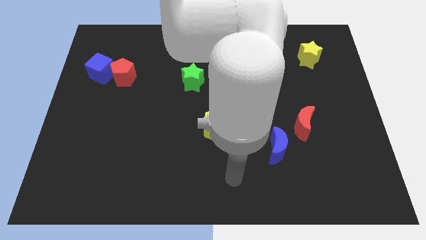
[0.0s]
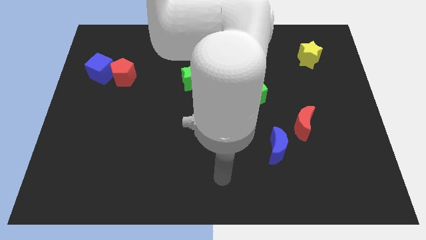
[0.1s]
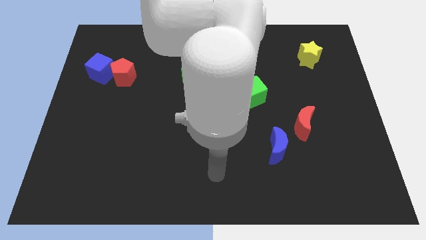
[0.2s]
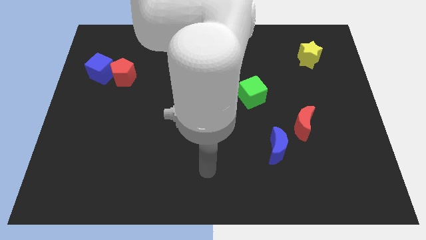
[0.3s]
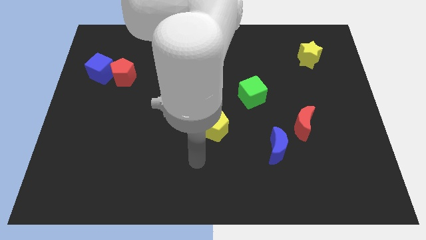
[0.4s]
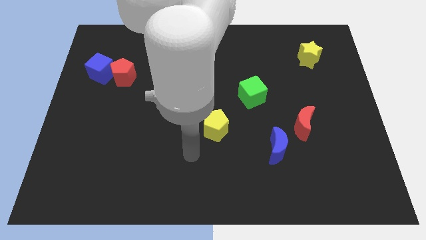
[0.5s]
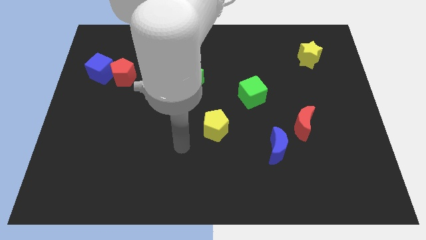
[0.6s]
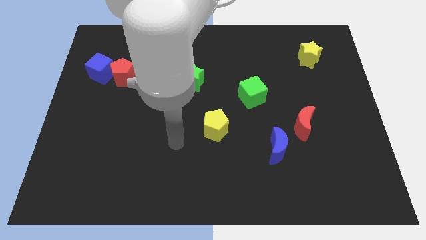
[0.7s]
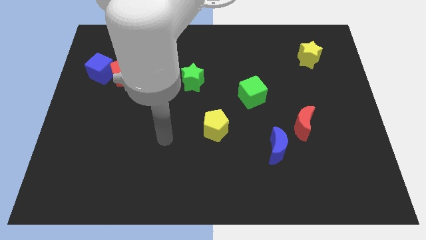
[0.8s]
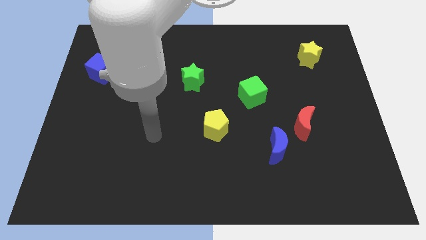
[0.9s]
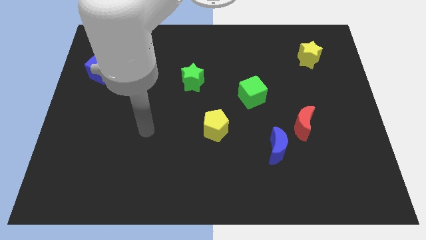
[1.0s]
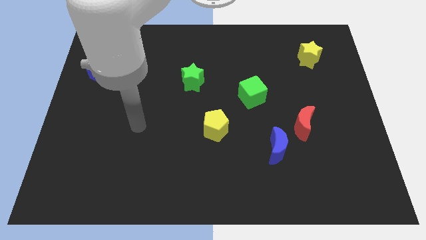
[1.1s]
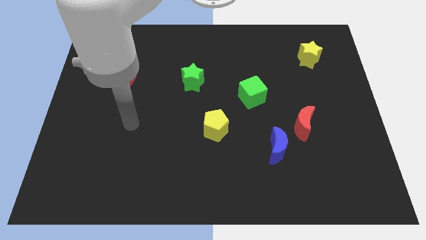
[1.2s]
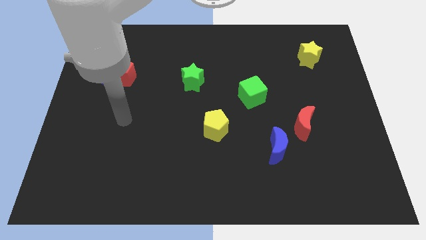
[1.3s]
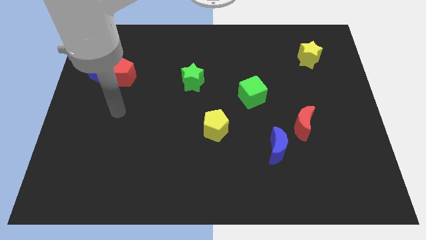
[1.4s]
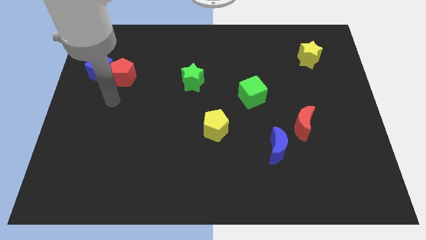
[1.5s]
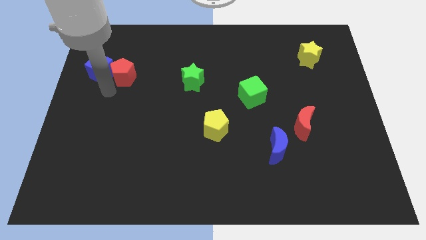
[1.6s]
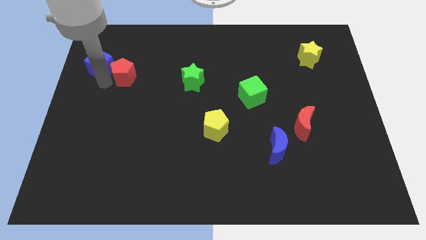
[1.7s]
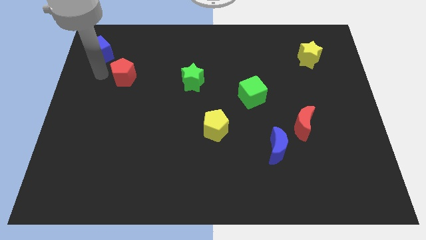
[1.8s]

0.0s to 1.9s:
move the red pentagon away from the blue cube

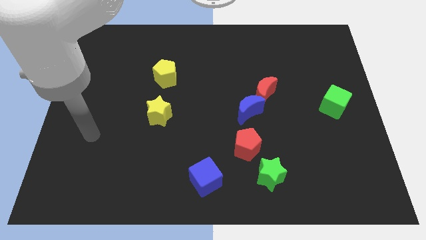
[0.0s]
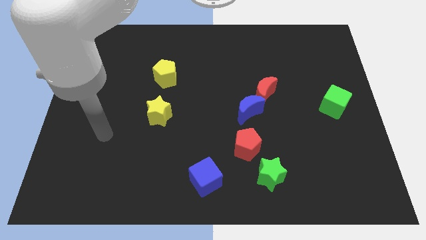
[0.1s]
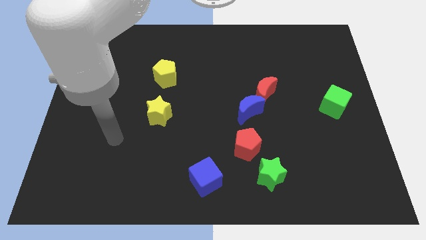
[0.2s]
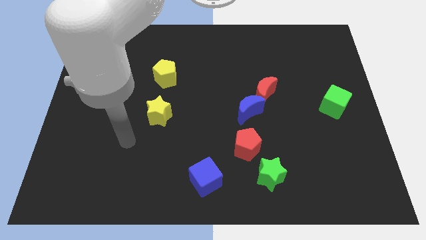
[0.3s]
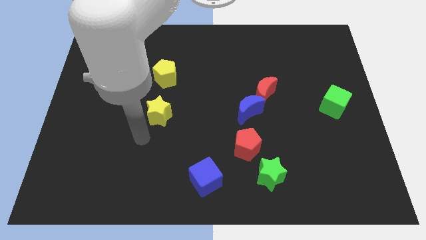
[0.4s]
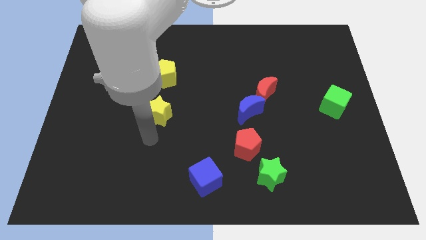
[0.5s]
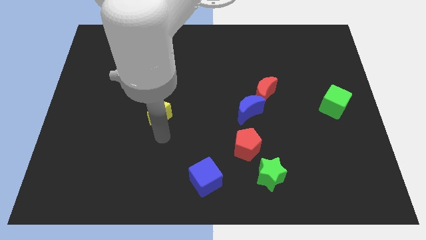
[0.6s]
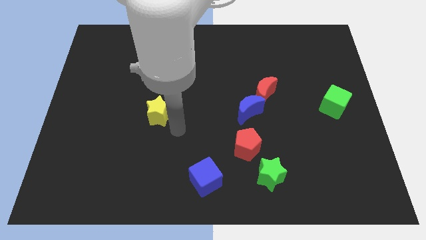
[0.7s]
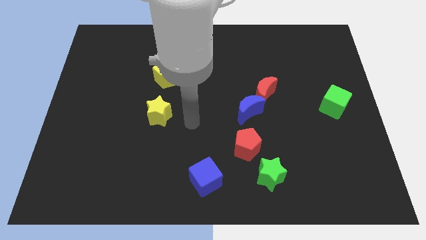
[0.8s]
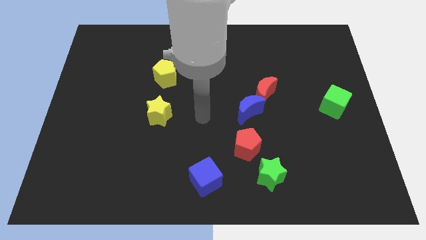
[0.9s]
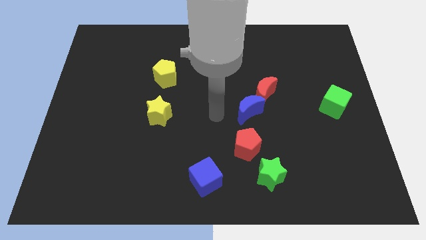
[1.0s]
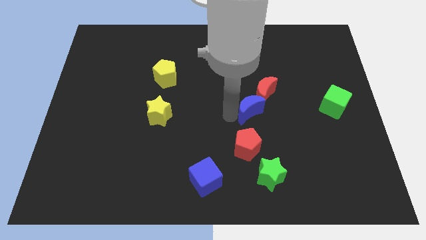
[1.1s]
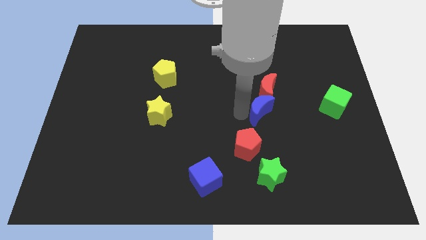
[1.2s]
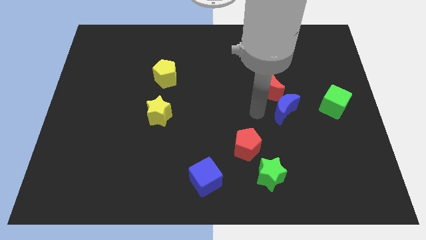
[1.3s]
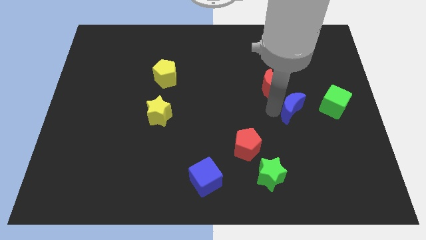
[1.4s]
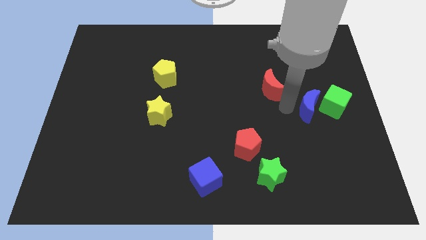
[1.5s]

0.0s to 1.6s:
pull the red moon apart from the blue moon

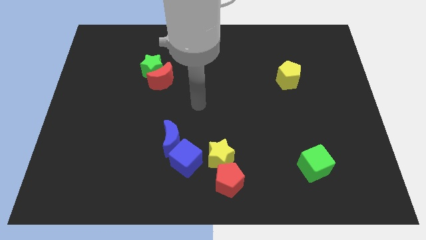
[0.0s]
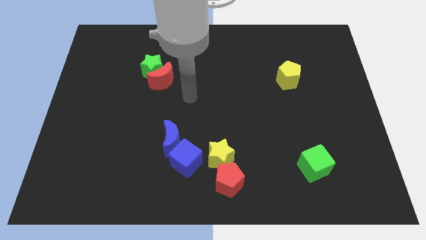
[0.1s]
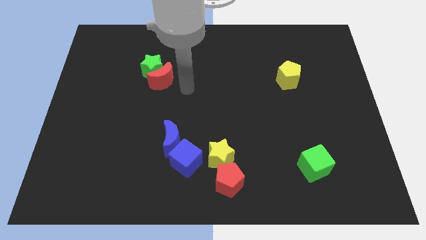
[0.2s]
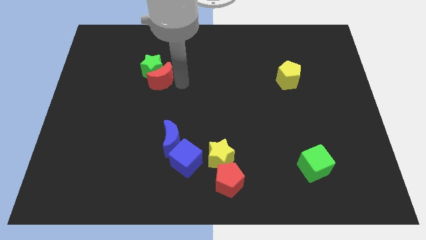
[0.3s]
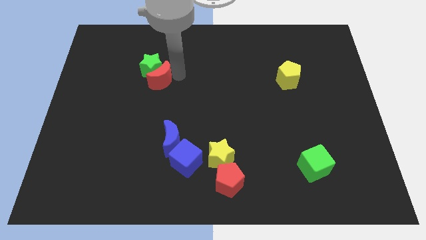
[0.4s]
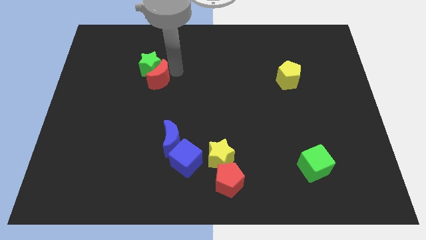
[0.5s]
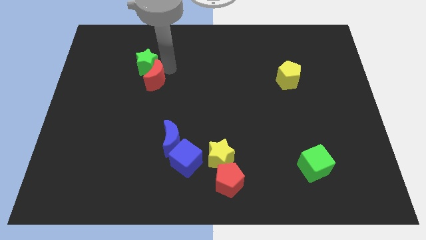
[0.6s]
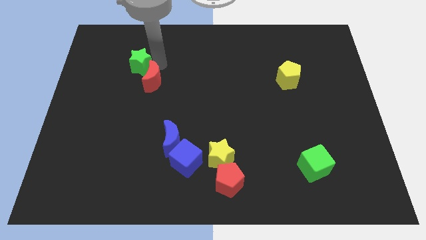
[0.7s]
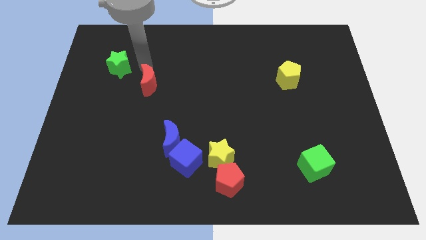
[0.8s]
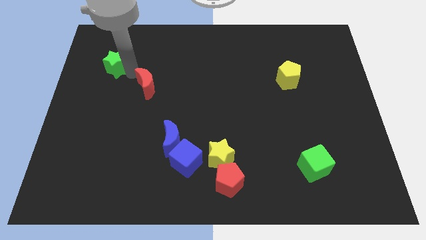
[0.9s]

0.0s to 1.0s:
pull the red moon apart from the green star

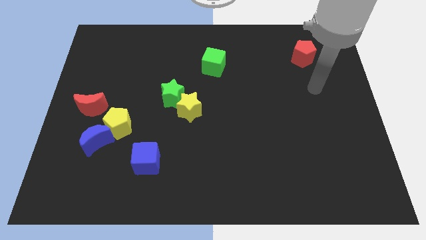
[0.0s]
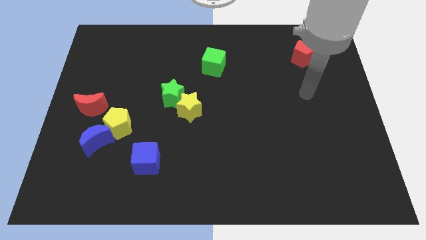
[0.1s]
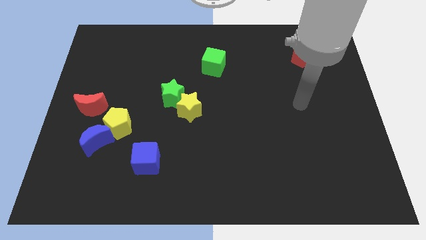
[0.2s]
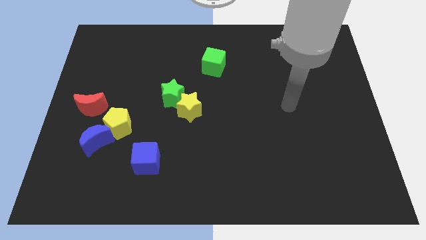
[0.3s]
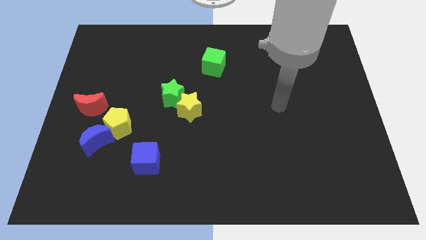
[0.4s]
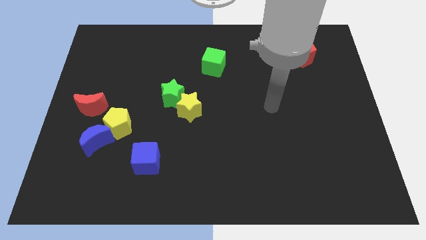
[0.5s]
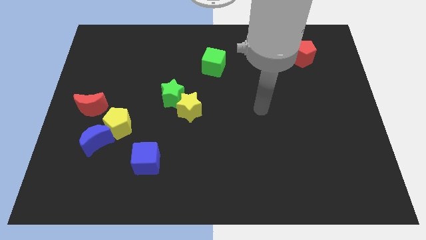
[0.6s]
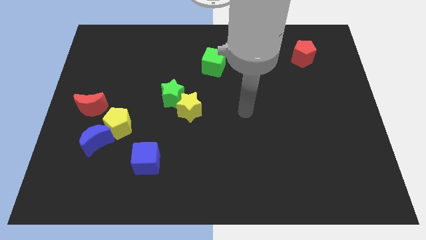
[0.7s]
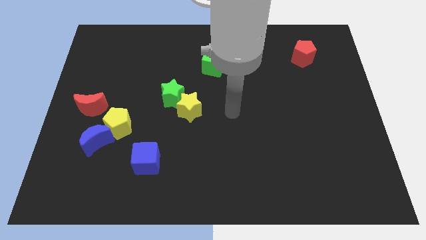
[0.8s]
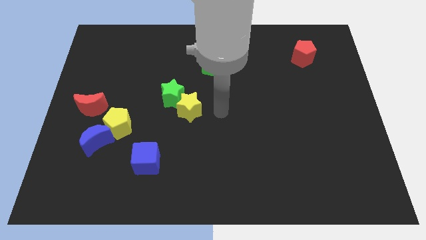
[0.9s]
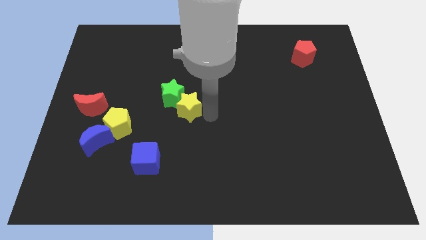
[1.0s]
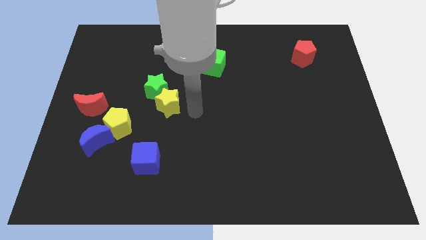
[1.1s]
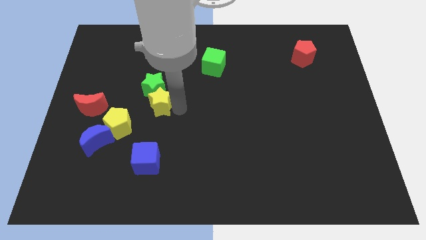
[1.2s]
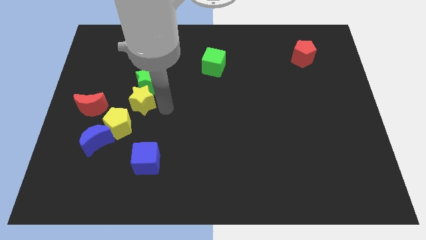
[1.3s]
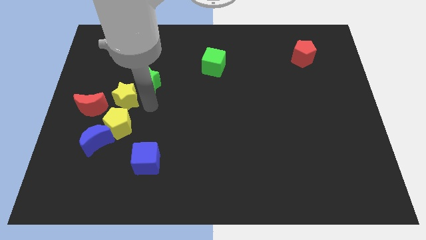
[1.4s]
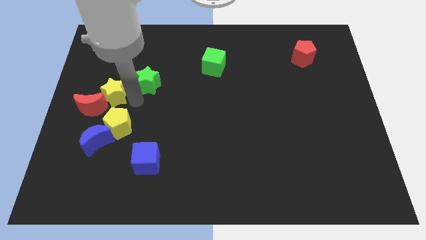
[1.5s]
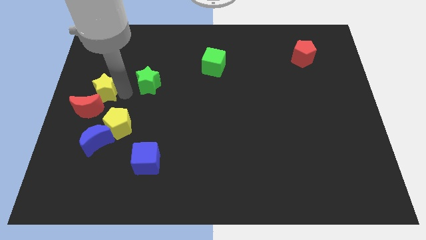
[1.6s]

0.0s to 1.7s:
move the green star away from the yellow star

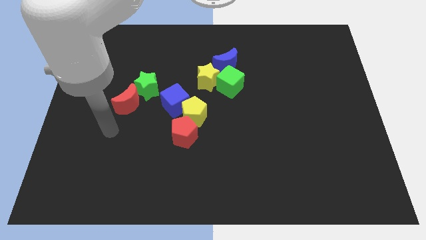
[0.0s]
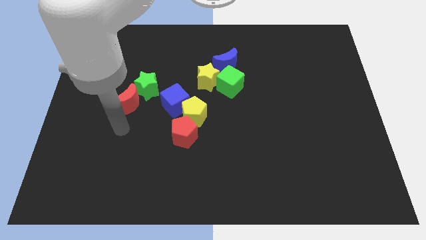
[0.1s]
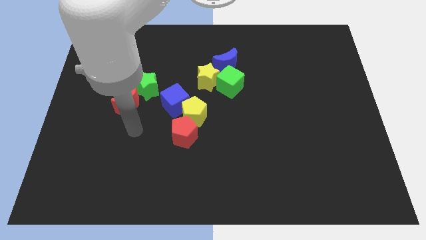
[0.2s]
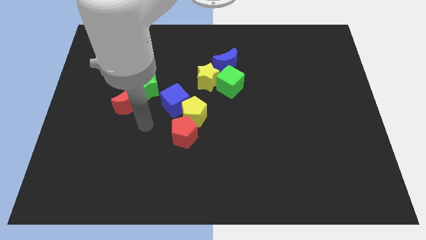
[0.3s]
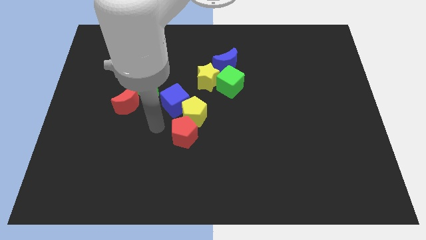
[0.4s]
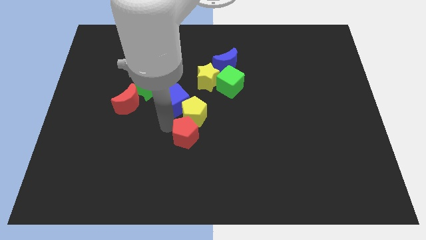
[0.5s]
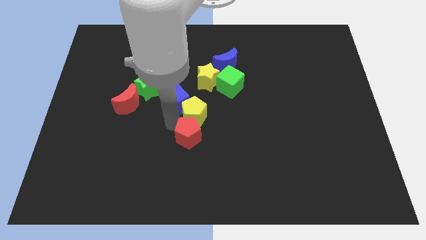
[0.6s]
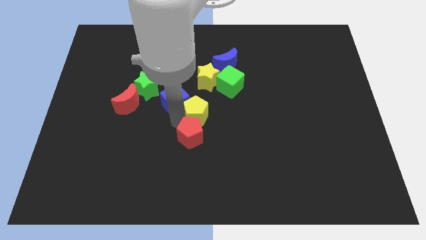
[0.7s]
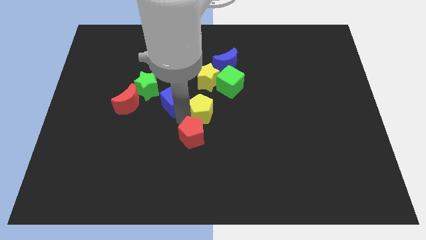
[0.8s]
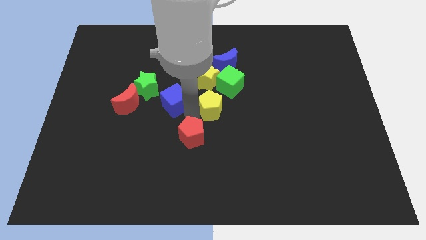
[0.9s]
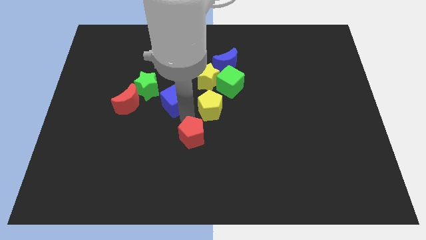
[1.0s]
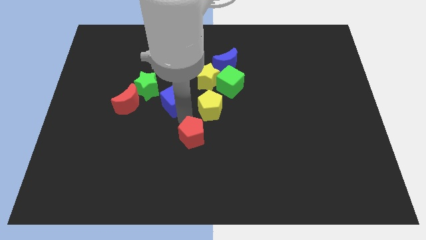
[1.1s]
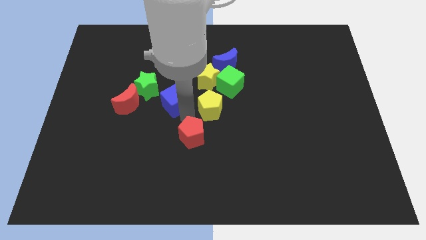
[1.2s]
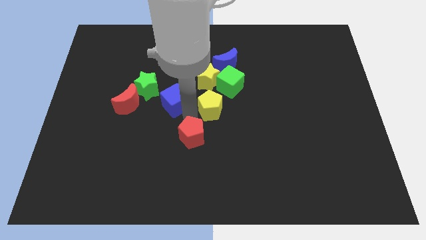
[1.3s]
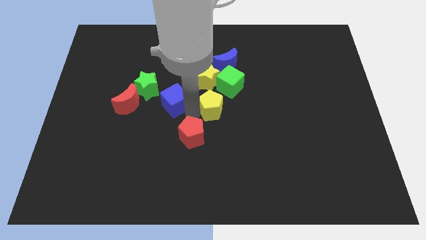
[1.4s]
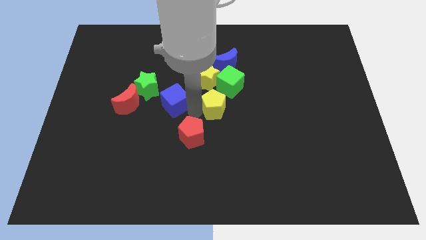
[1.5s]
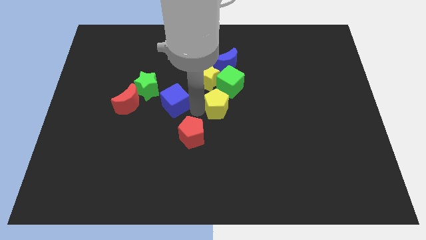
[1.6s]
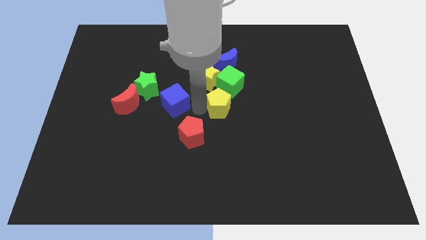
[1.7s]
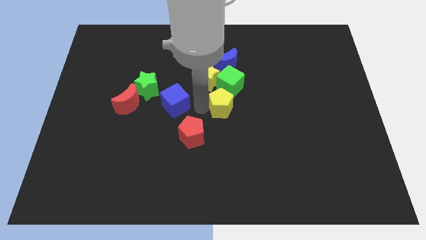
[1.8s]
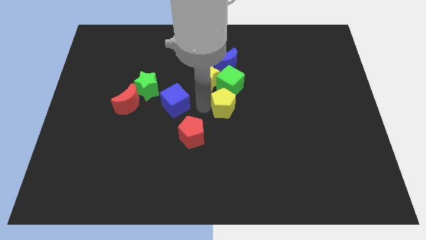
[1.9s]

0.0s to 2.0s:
separate the yellow pentagon from the blue cube and red pentagon

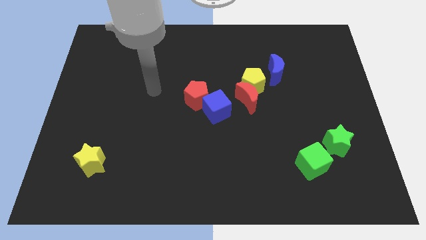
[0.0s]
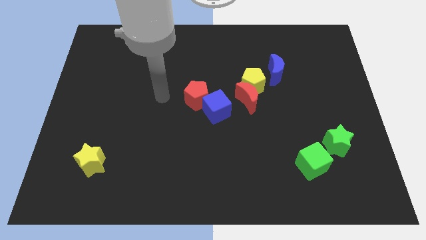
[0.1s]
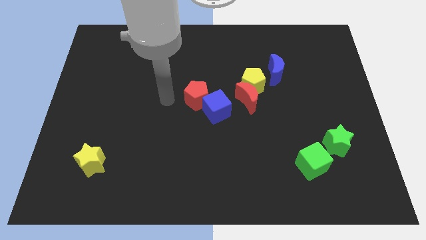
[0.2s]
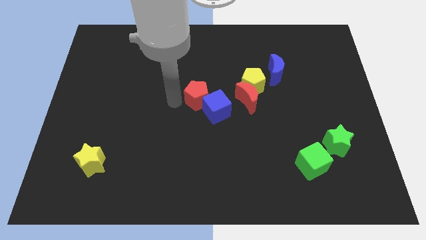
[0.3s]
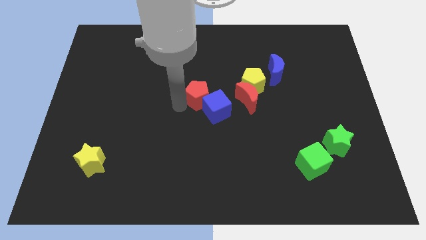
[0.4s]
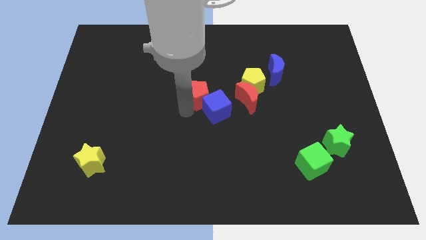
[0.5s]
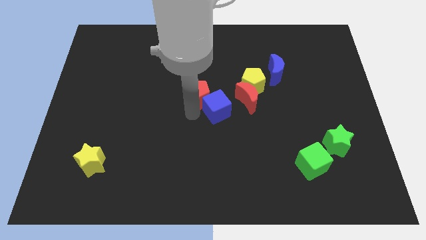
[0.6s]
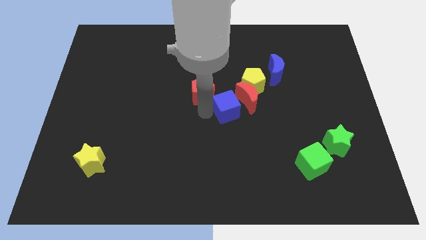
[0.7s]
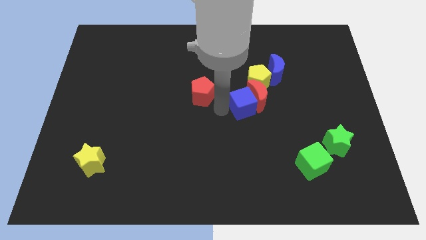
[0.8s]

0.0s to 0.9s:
separate the red pentagon from the blue cube

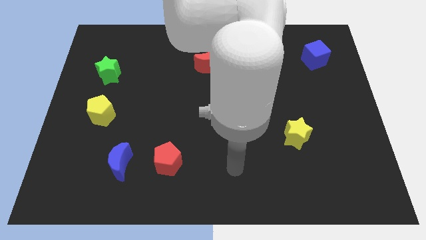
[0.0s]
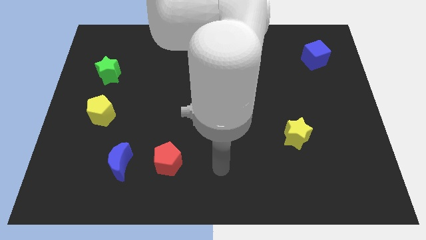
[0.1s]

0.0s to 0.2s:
separate the red pentagon from the blue moon
